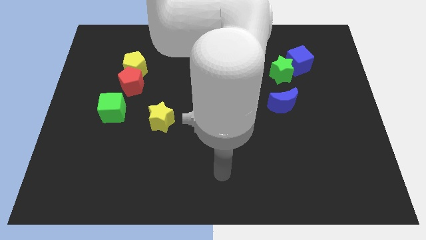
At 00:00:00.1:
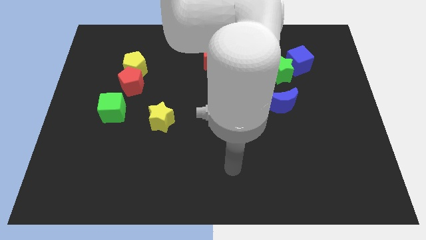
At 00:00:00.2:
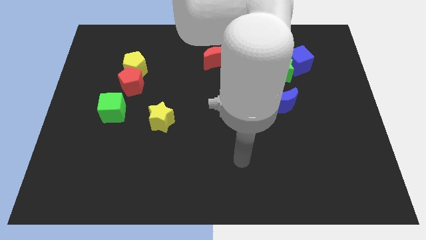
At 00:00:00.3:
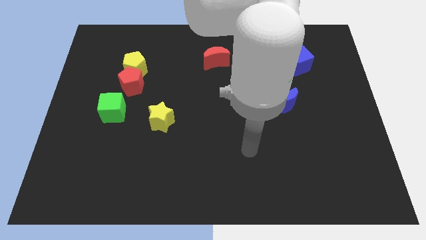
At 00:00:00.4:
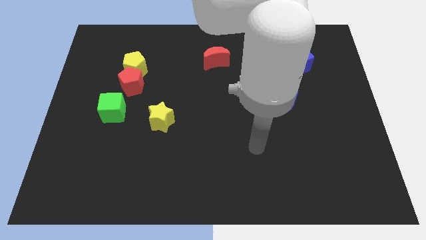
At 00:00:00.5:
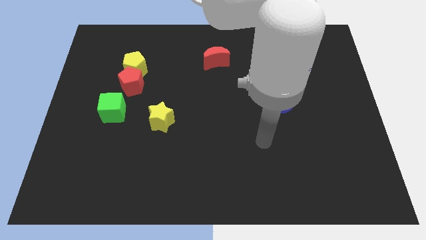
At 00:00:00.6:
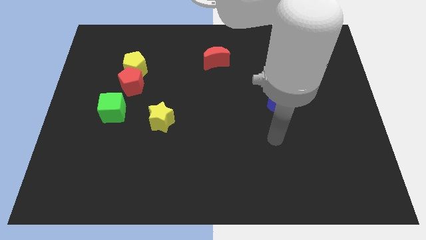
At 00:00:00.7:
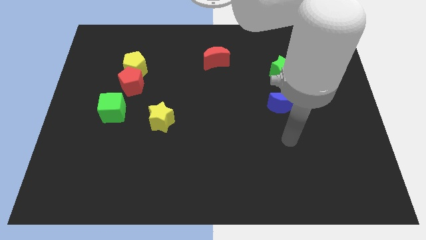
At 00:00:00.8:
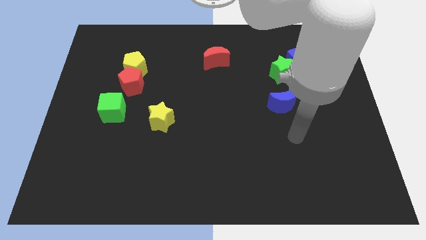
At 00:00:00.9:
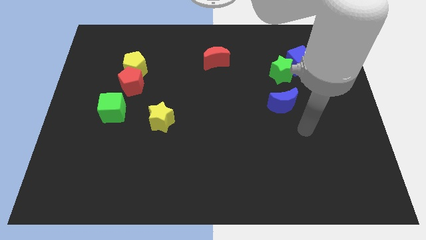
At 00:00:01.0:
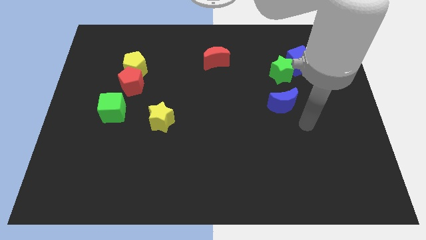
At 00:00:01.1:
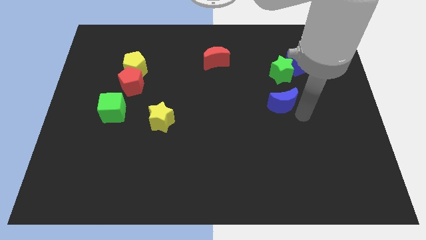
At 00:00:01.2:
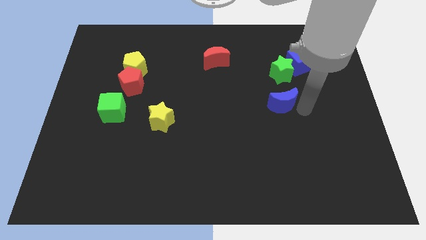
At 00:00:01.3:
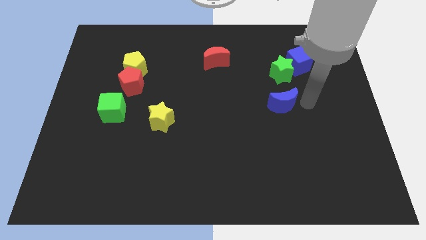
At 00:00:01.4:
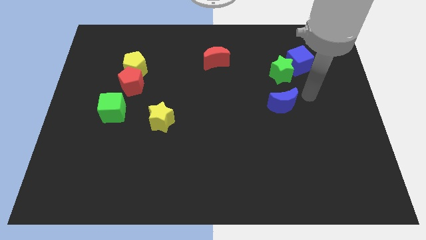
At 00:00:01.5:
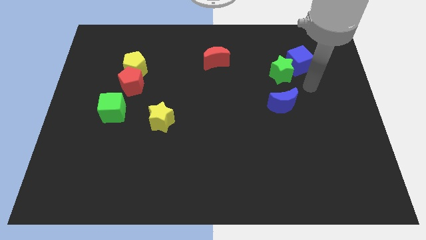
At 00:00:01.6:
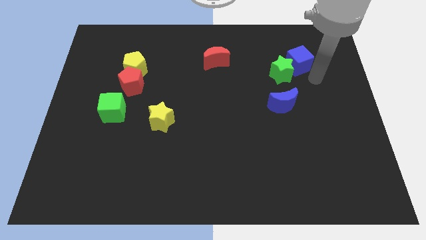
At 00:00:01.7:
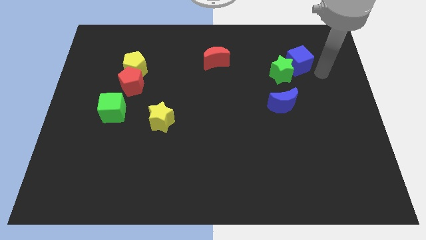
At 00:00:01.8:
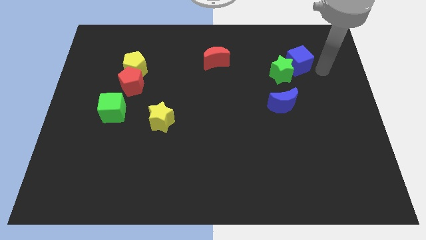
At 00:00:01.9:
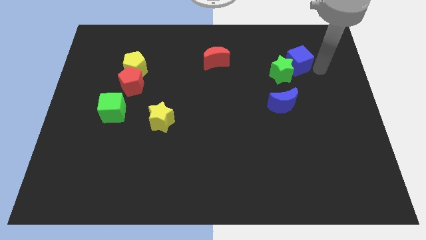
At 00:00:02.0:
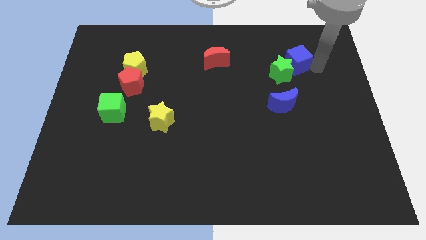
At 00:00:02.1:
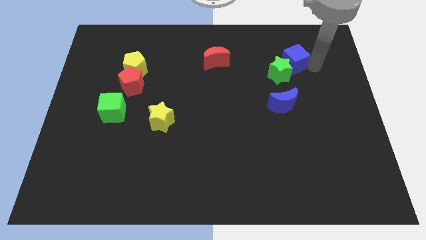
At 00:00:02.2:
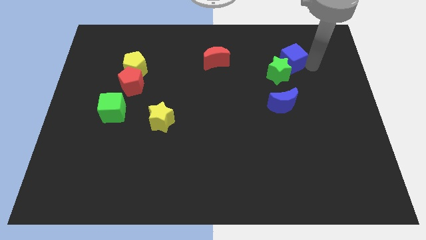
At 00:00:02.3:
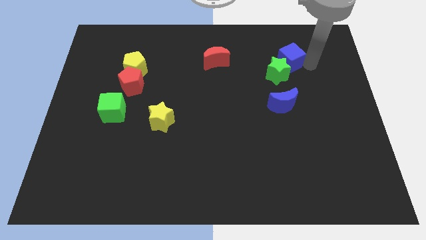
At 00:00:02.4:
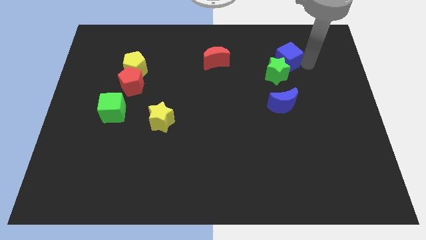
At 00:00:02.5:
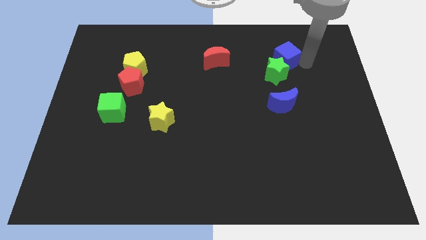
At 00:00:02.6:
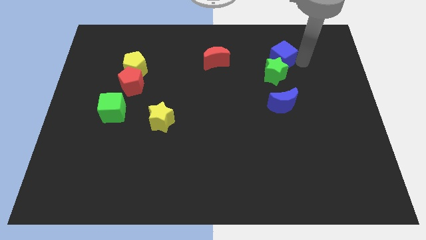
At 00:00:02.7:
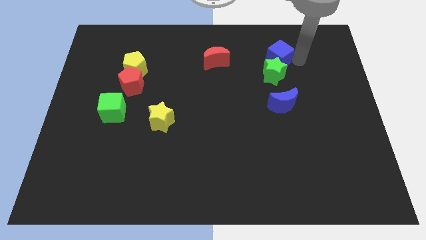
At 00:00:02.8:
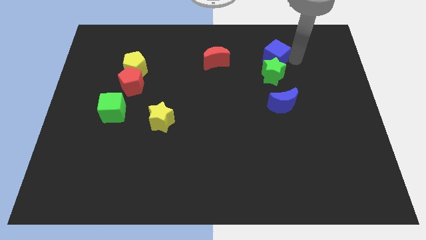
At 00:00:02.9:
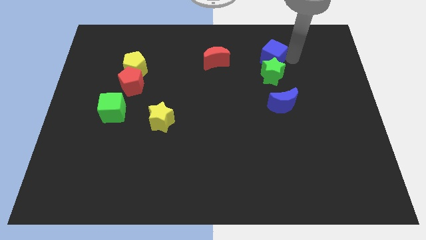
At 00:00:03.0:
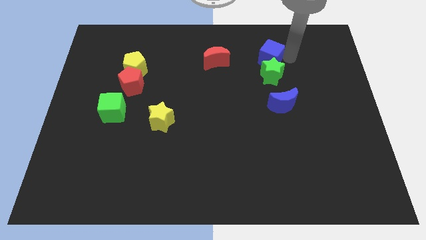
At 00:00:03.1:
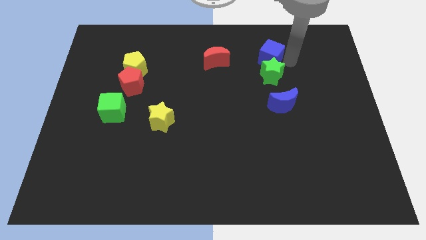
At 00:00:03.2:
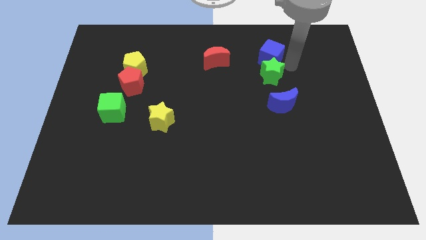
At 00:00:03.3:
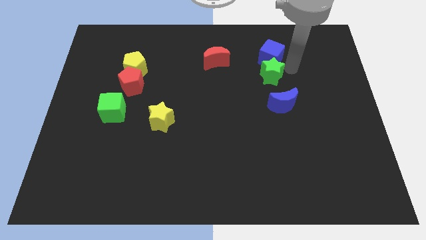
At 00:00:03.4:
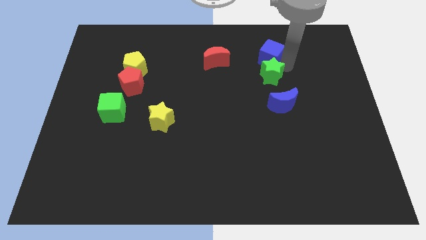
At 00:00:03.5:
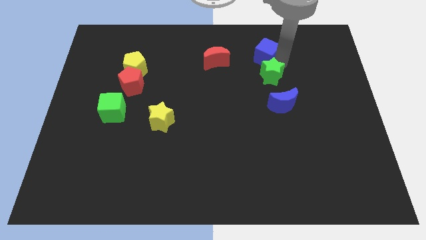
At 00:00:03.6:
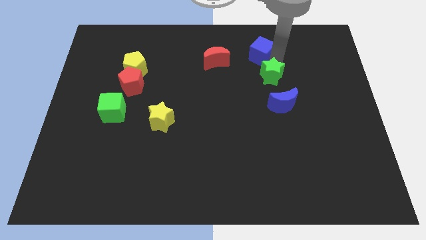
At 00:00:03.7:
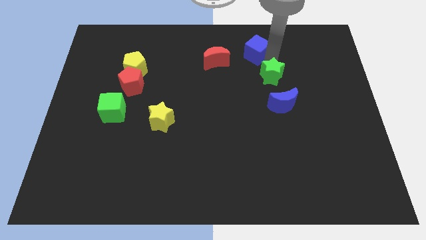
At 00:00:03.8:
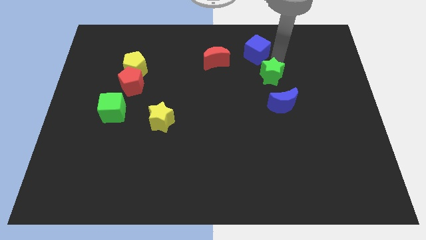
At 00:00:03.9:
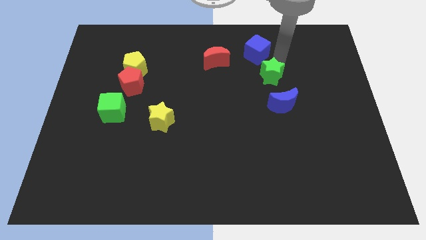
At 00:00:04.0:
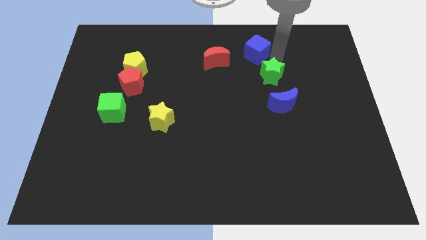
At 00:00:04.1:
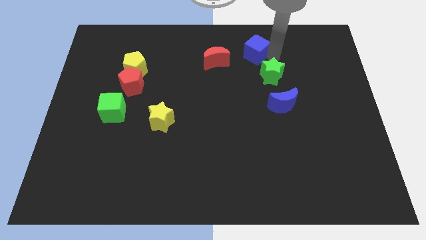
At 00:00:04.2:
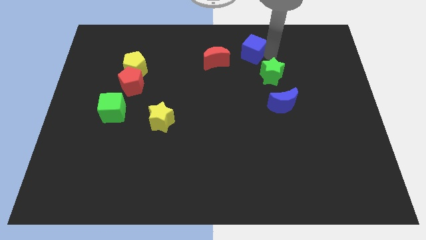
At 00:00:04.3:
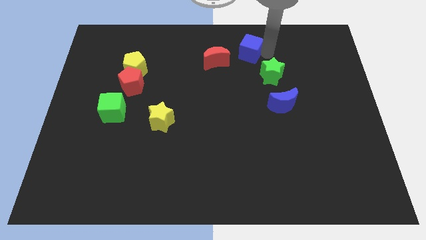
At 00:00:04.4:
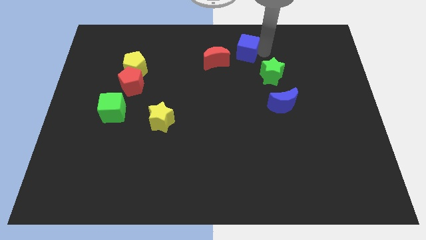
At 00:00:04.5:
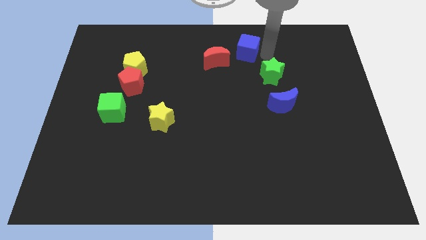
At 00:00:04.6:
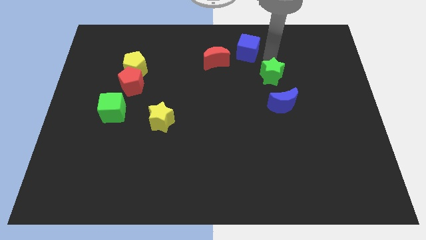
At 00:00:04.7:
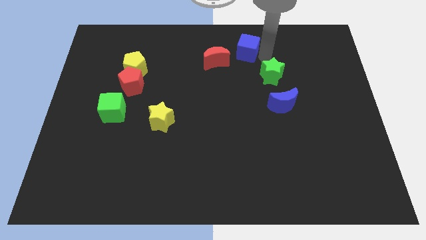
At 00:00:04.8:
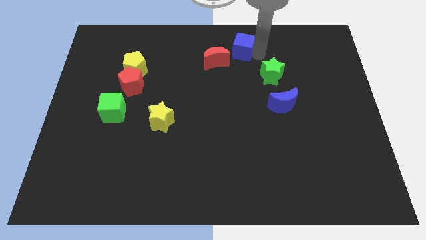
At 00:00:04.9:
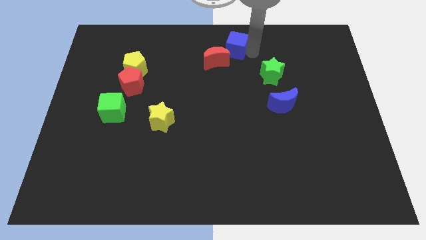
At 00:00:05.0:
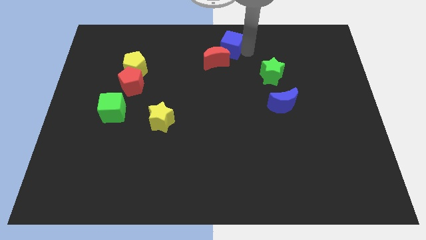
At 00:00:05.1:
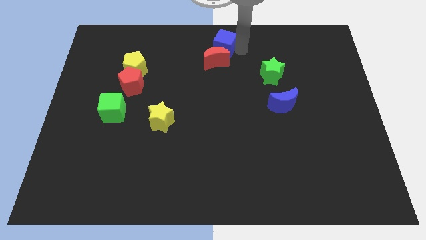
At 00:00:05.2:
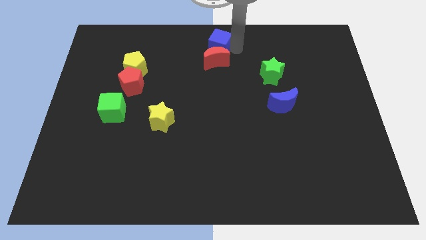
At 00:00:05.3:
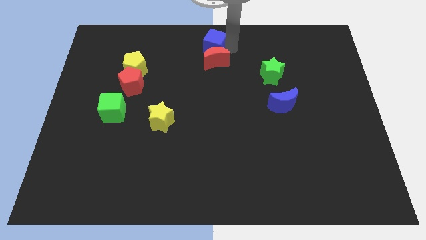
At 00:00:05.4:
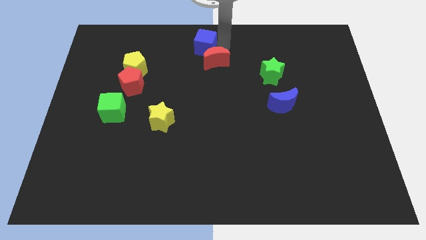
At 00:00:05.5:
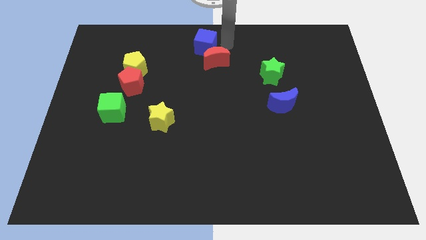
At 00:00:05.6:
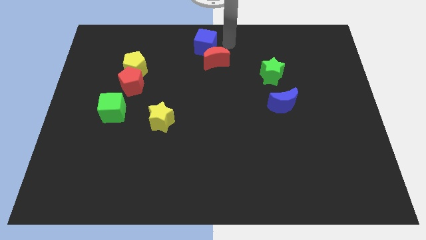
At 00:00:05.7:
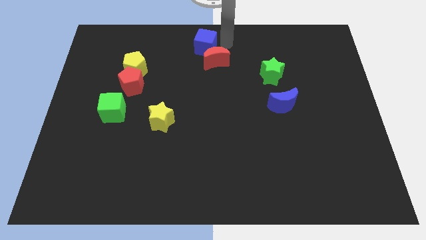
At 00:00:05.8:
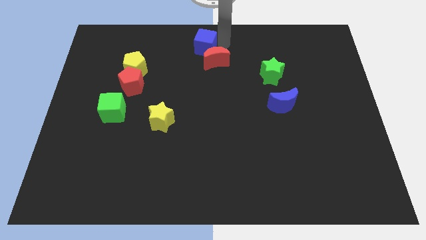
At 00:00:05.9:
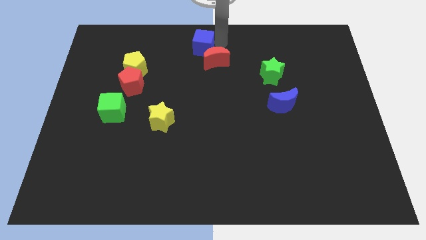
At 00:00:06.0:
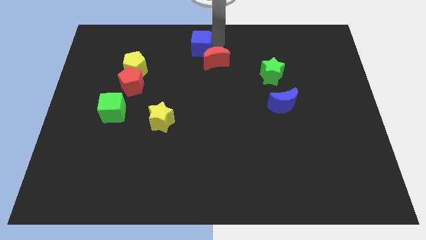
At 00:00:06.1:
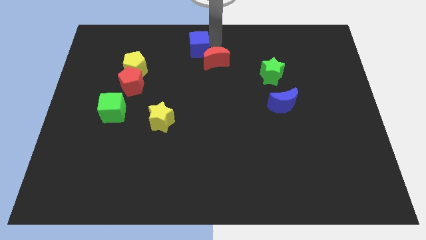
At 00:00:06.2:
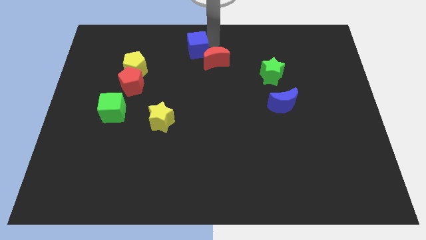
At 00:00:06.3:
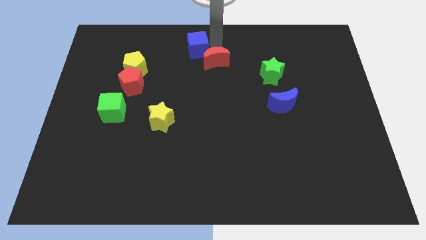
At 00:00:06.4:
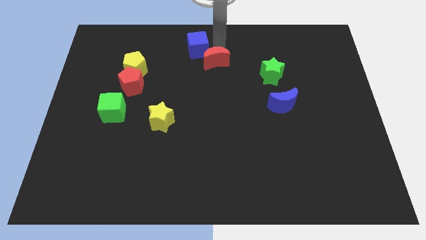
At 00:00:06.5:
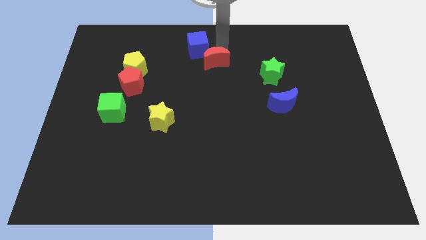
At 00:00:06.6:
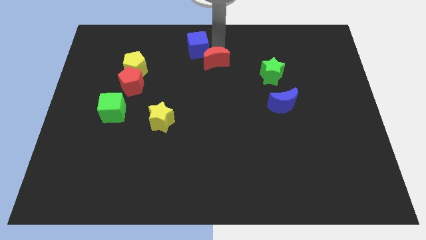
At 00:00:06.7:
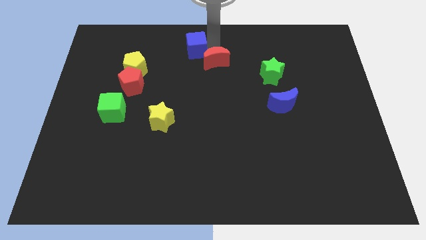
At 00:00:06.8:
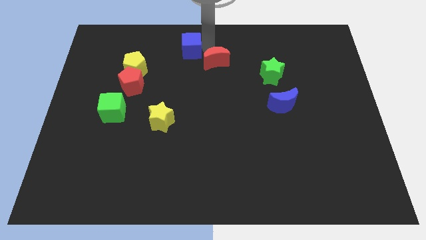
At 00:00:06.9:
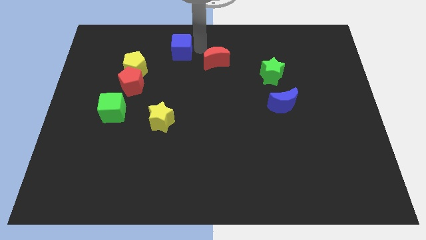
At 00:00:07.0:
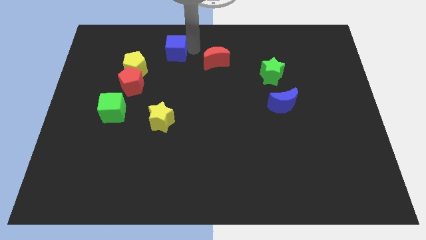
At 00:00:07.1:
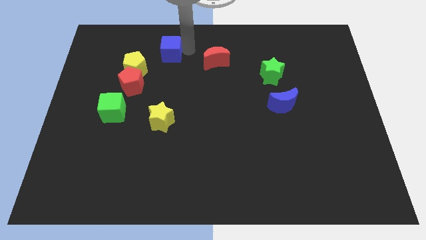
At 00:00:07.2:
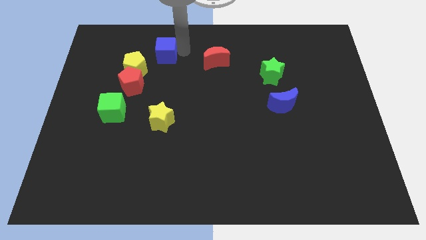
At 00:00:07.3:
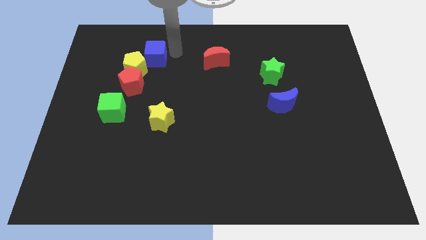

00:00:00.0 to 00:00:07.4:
slide the blue cube to the top side of the red pentagon
